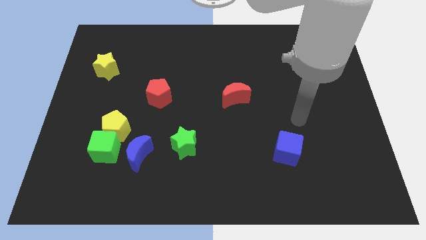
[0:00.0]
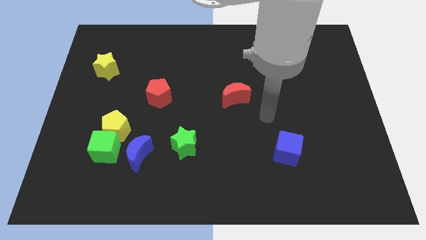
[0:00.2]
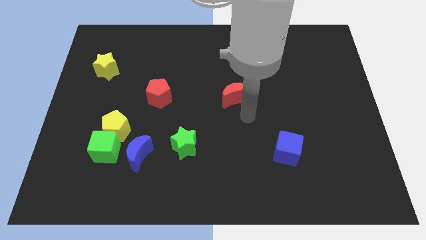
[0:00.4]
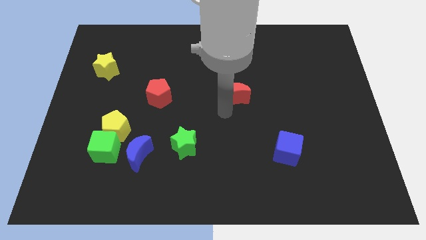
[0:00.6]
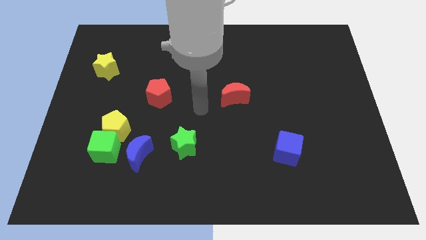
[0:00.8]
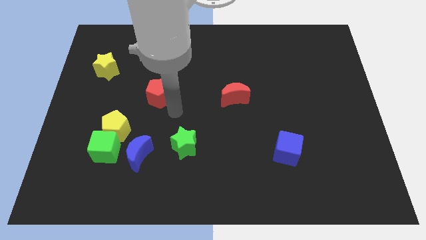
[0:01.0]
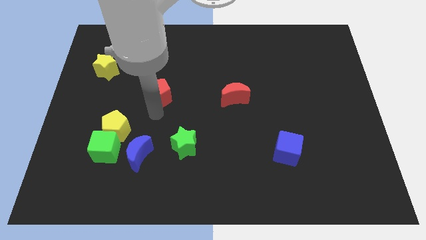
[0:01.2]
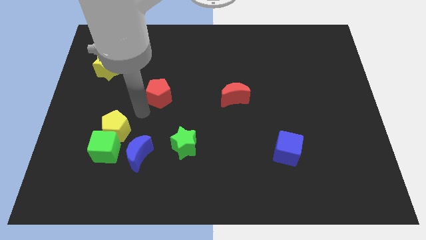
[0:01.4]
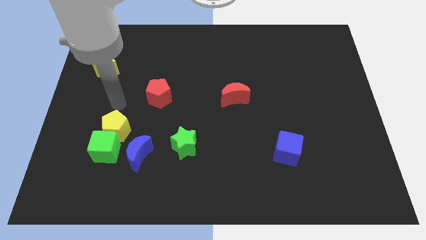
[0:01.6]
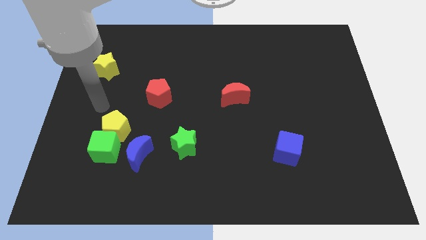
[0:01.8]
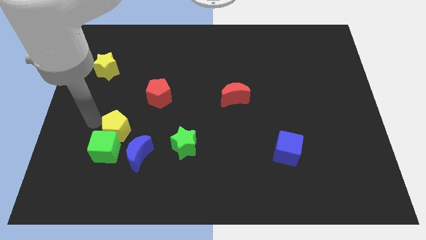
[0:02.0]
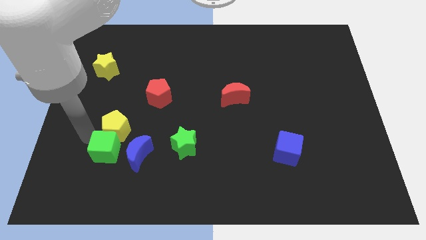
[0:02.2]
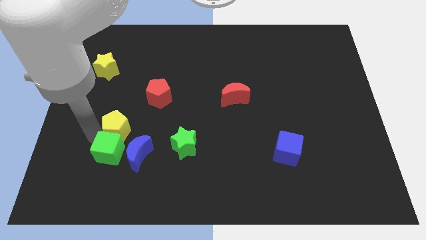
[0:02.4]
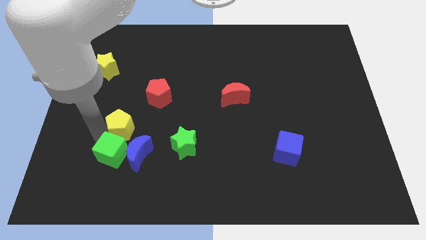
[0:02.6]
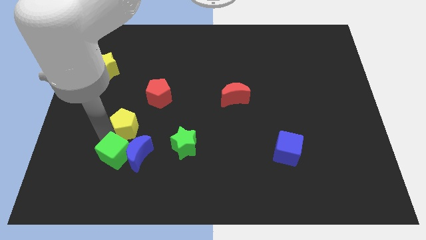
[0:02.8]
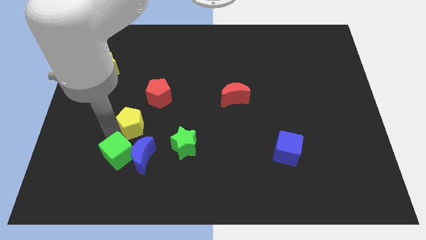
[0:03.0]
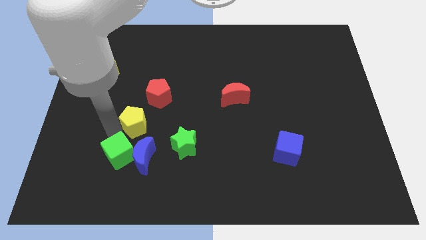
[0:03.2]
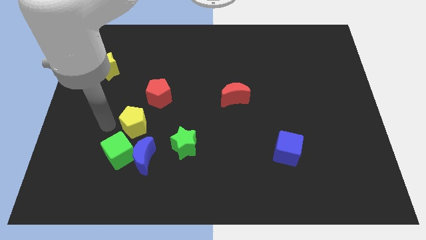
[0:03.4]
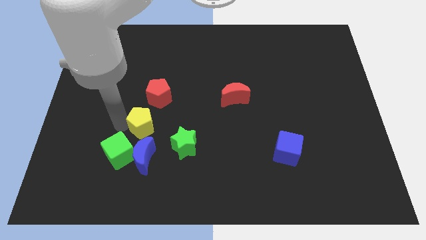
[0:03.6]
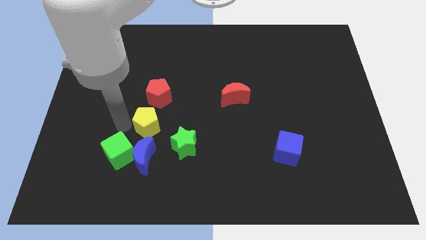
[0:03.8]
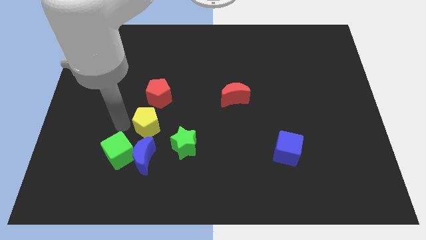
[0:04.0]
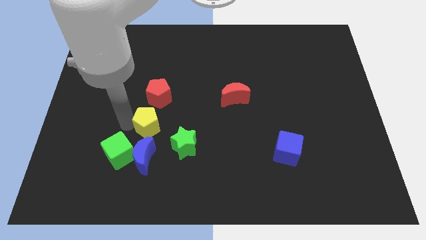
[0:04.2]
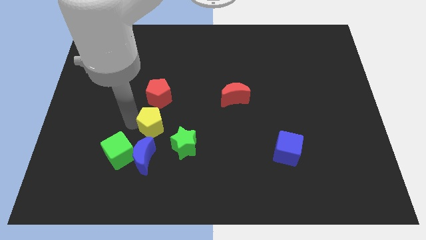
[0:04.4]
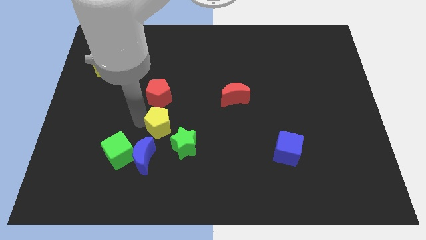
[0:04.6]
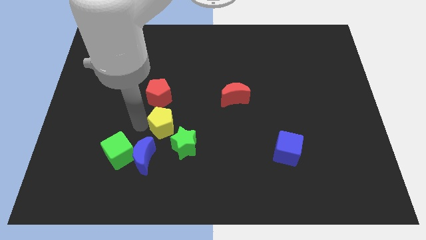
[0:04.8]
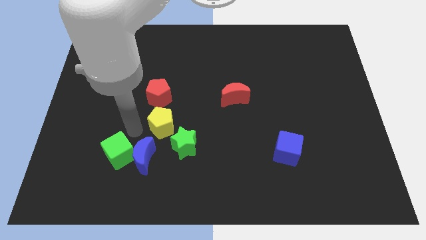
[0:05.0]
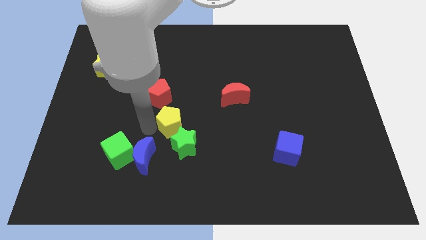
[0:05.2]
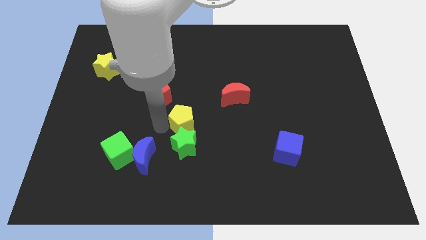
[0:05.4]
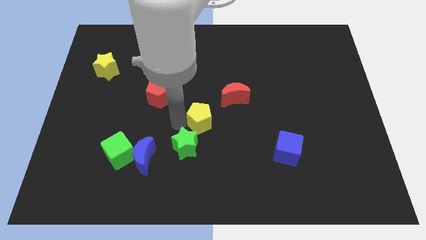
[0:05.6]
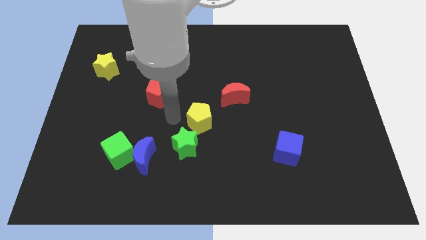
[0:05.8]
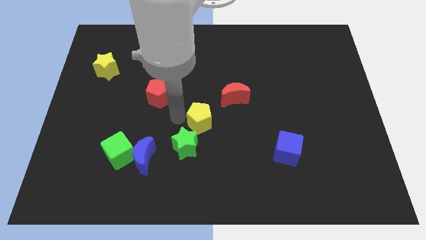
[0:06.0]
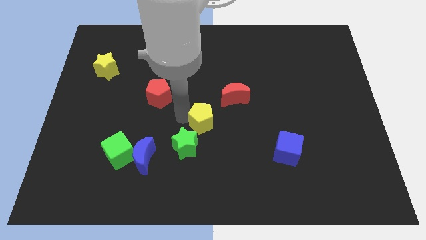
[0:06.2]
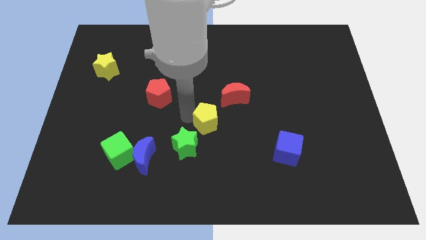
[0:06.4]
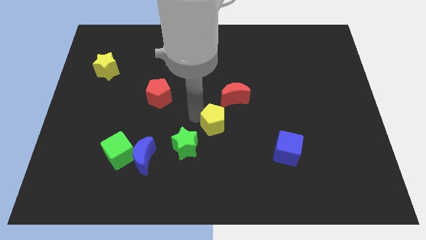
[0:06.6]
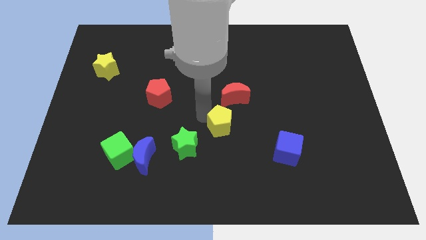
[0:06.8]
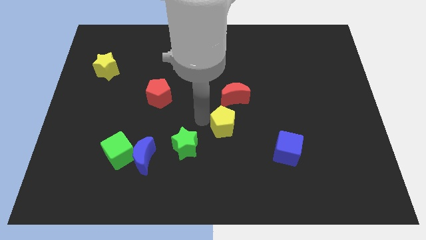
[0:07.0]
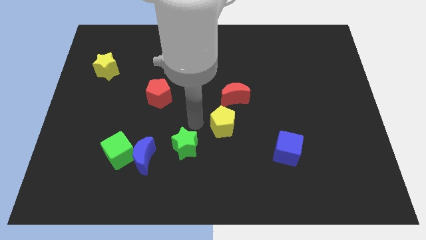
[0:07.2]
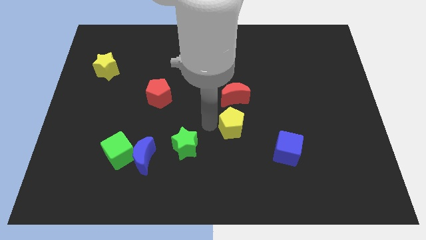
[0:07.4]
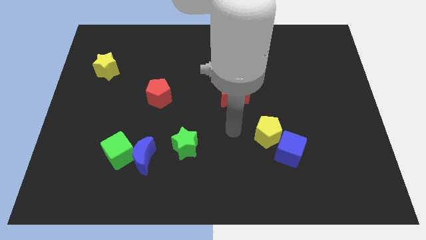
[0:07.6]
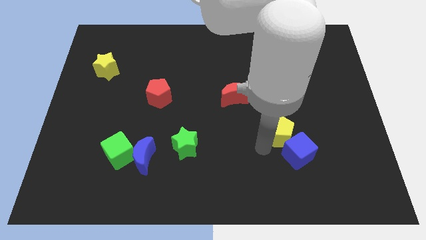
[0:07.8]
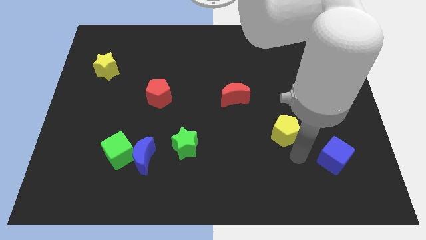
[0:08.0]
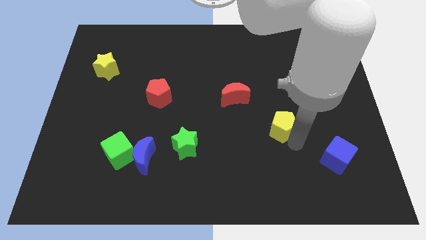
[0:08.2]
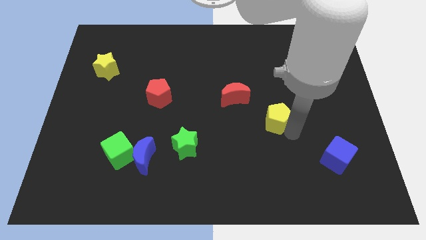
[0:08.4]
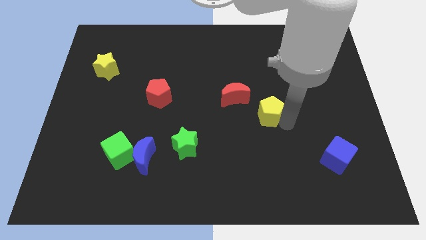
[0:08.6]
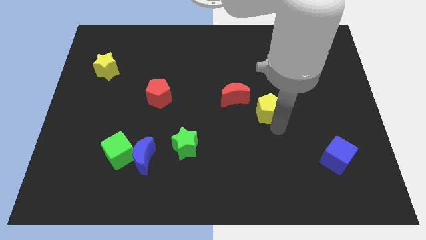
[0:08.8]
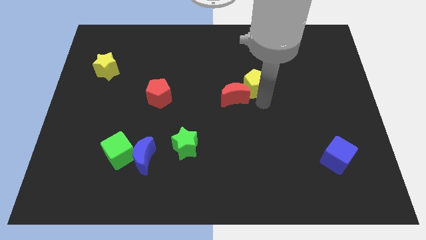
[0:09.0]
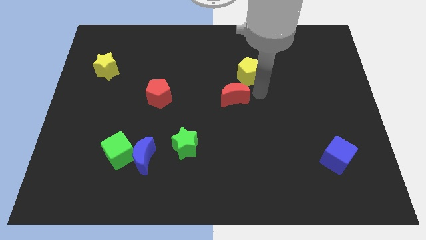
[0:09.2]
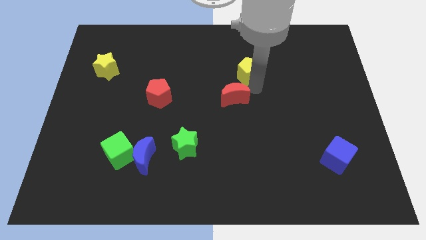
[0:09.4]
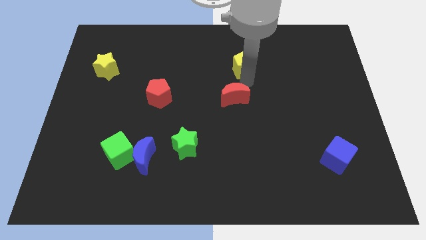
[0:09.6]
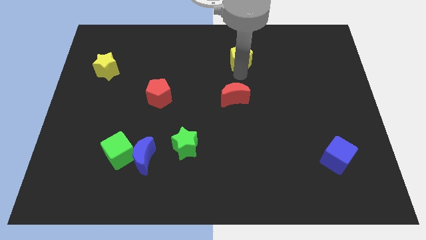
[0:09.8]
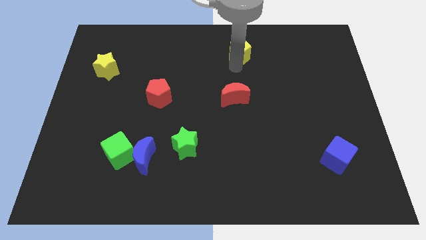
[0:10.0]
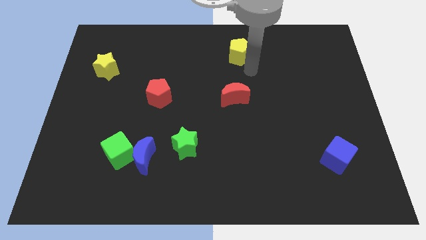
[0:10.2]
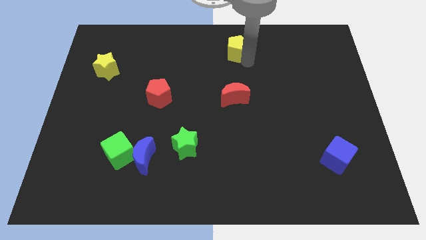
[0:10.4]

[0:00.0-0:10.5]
move the yellow pentagon to the towards your base
